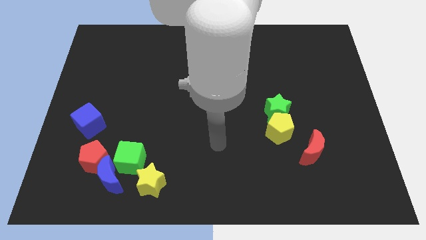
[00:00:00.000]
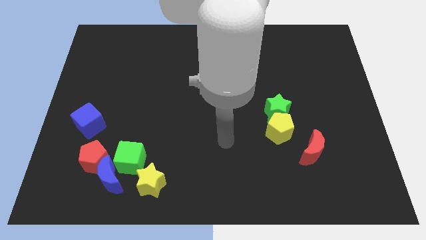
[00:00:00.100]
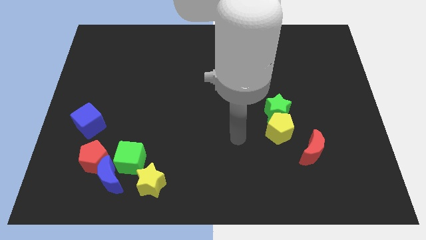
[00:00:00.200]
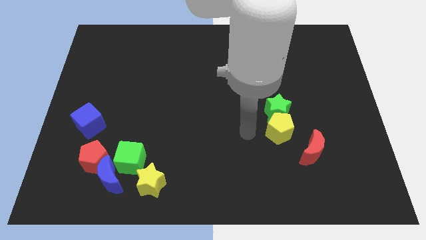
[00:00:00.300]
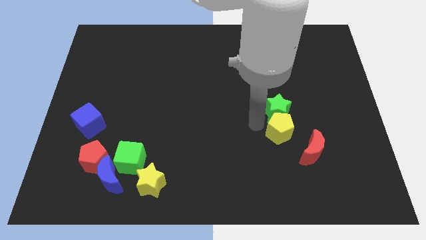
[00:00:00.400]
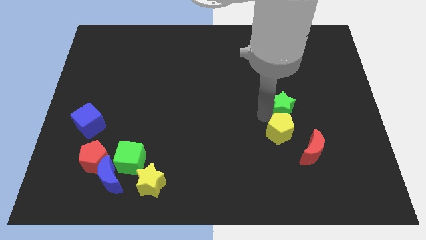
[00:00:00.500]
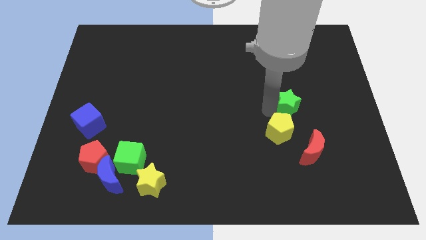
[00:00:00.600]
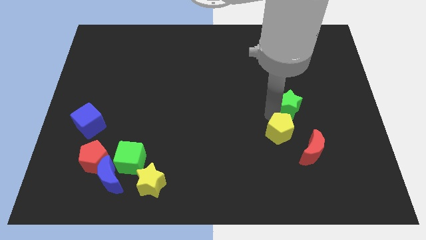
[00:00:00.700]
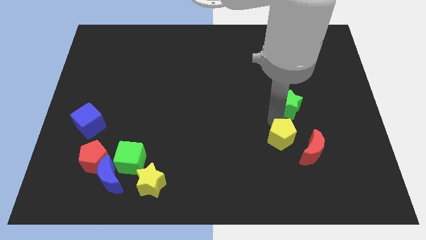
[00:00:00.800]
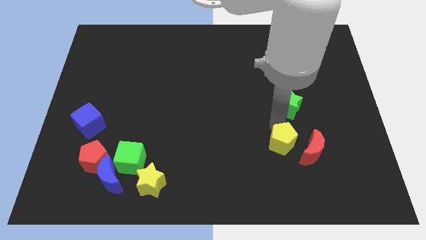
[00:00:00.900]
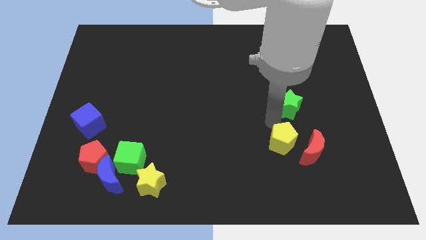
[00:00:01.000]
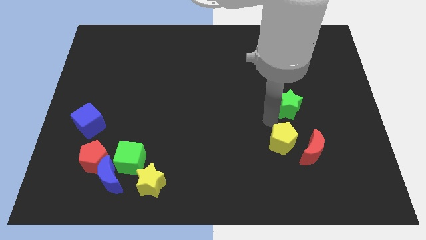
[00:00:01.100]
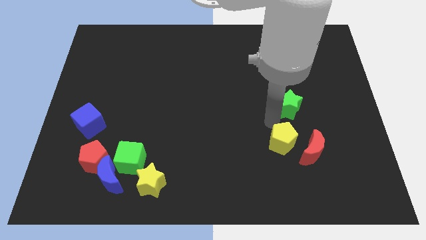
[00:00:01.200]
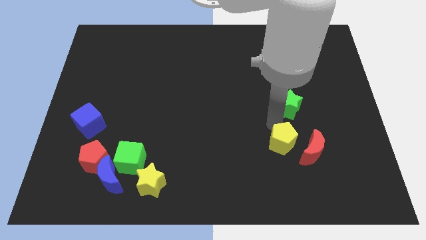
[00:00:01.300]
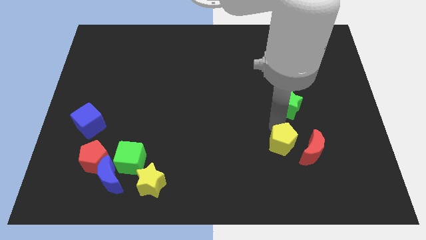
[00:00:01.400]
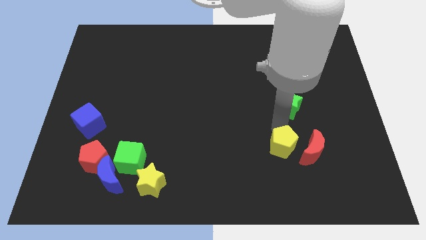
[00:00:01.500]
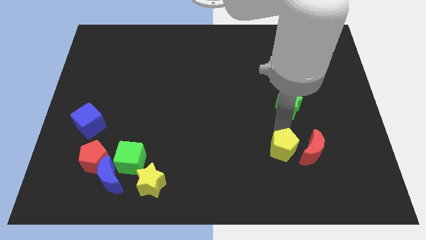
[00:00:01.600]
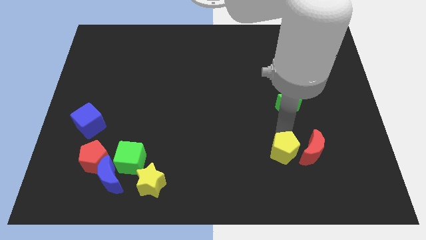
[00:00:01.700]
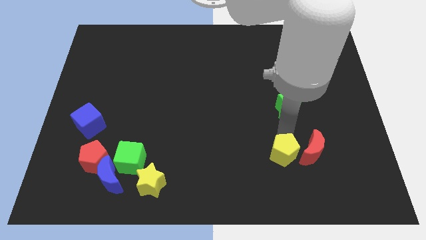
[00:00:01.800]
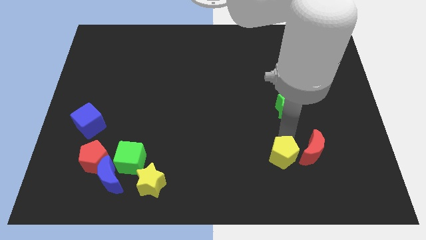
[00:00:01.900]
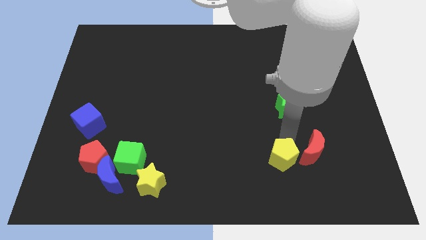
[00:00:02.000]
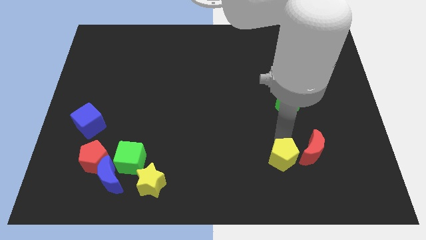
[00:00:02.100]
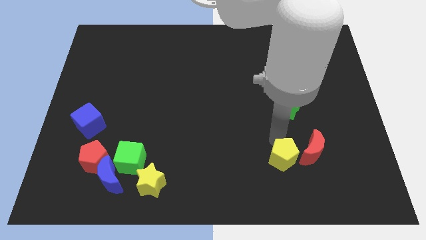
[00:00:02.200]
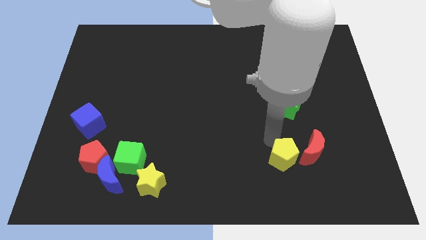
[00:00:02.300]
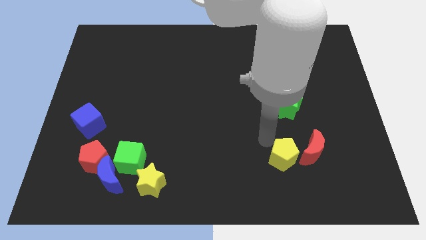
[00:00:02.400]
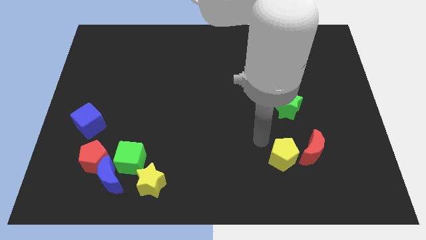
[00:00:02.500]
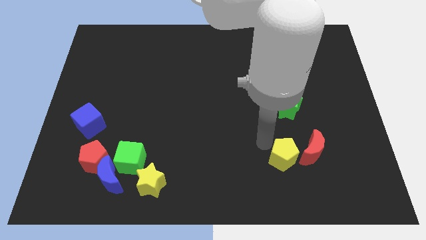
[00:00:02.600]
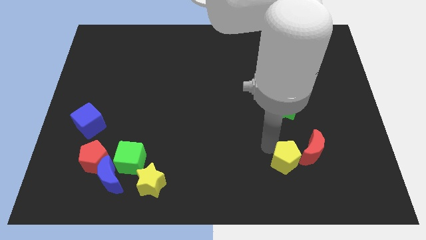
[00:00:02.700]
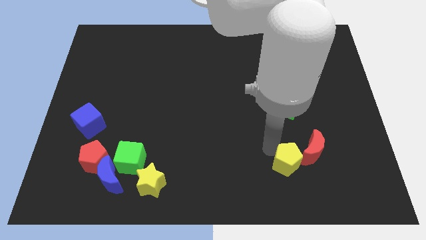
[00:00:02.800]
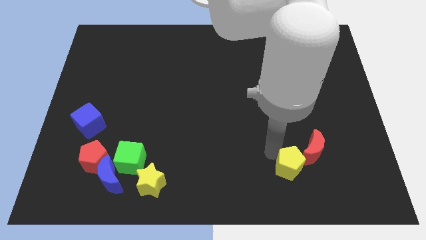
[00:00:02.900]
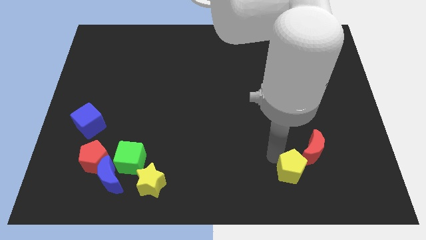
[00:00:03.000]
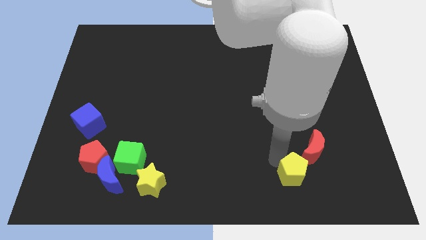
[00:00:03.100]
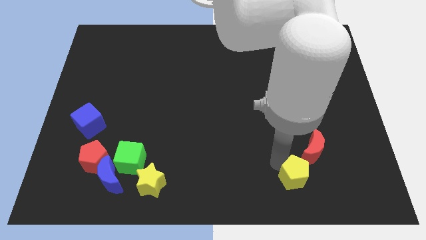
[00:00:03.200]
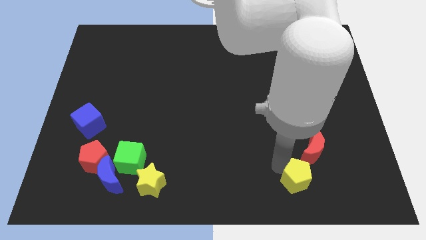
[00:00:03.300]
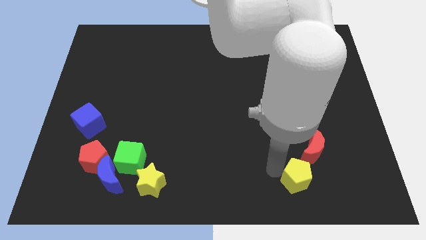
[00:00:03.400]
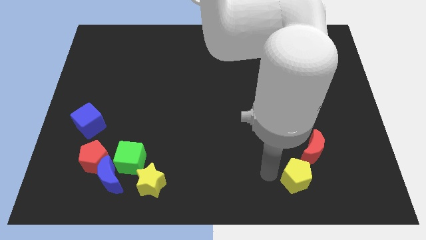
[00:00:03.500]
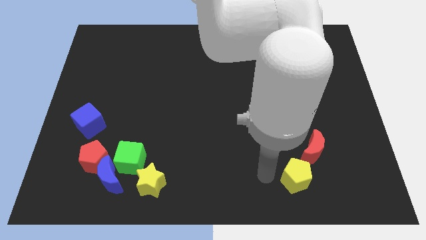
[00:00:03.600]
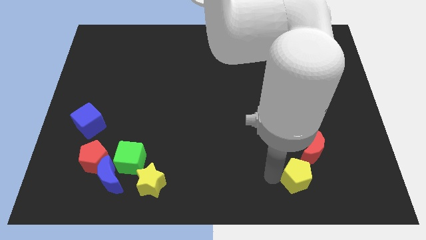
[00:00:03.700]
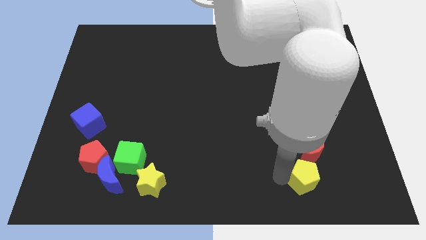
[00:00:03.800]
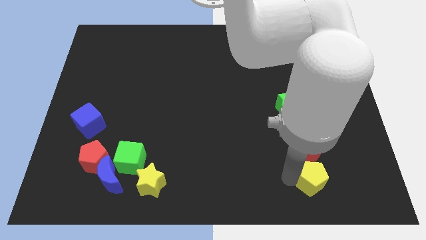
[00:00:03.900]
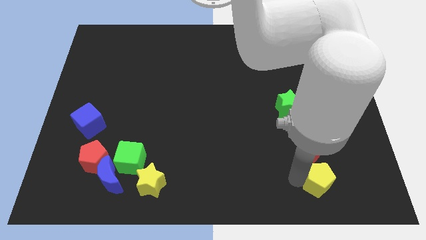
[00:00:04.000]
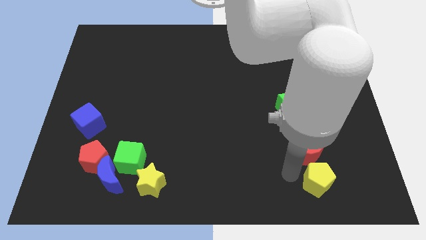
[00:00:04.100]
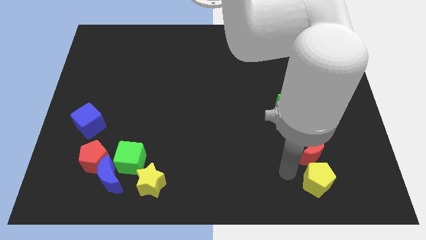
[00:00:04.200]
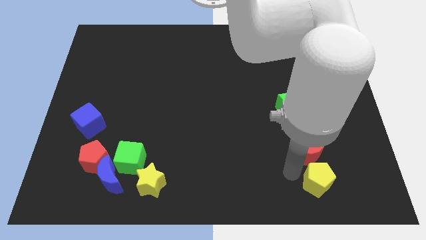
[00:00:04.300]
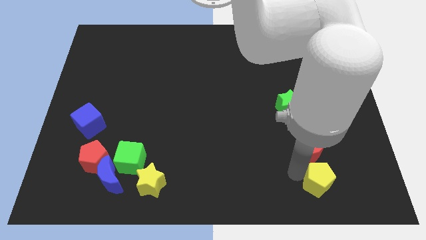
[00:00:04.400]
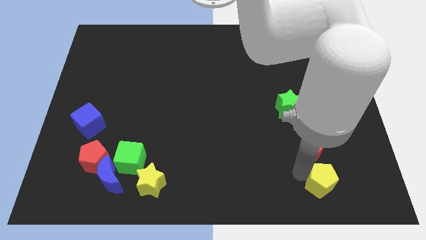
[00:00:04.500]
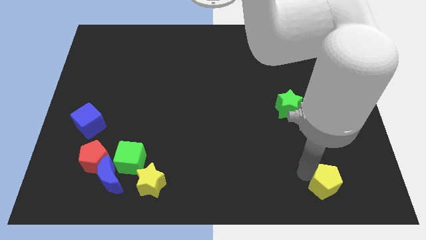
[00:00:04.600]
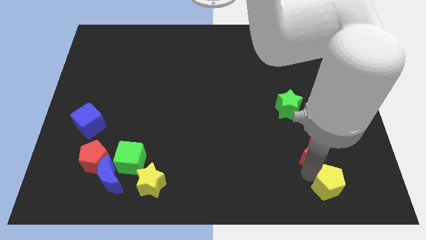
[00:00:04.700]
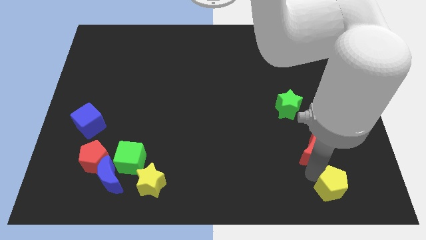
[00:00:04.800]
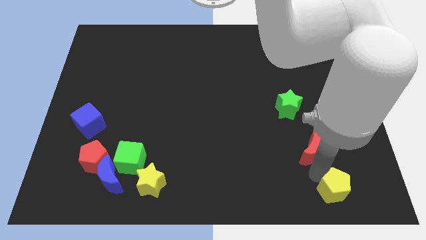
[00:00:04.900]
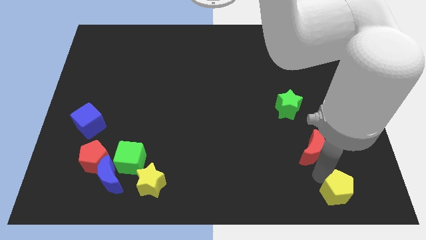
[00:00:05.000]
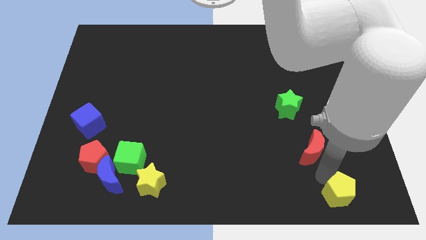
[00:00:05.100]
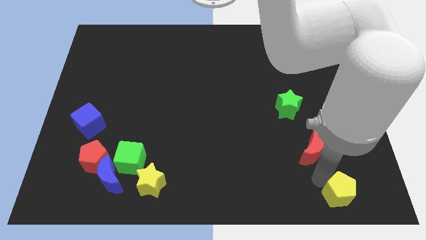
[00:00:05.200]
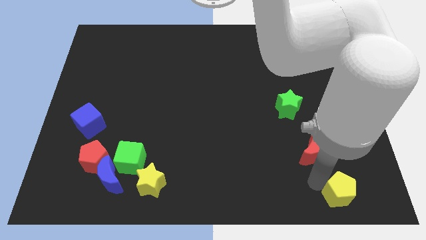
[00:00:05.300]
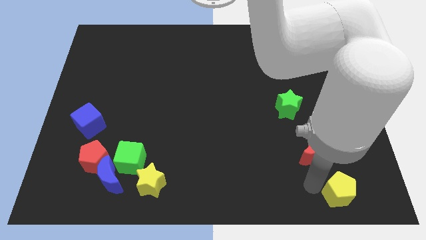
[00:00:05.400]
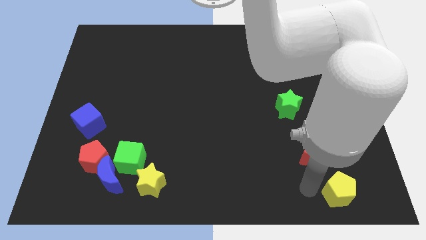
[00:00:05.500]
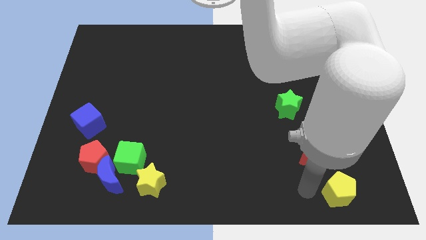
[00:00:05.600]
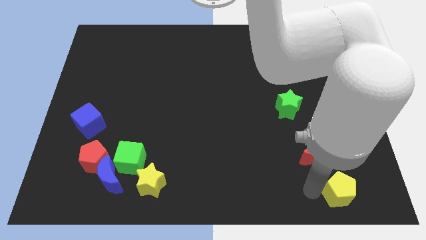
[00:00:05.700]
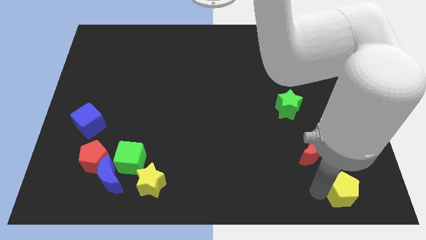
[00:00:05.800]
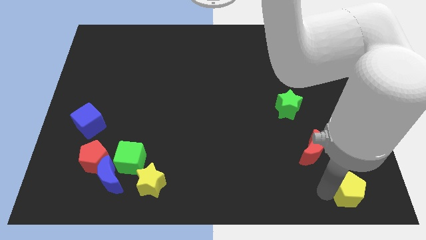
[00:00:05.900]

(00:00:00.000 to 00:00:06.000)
push the yellow pentagon to the lower right corner
